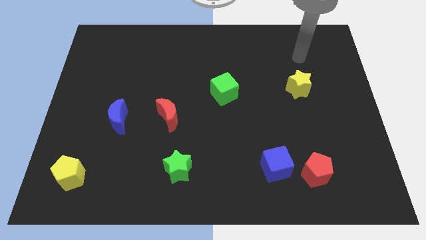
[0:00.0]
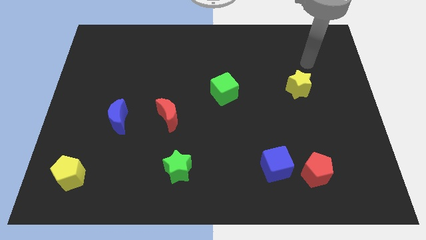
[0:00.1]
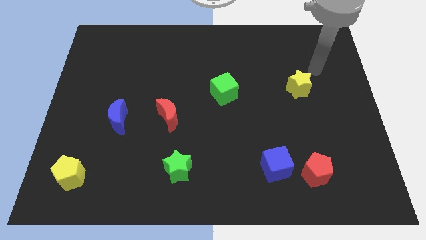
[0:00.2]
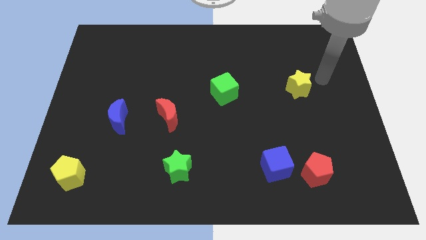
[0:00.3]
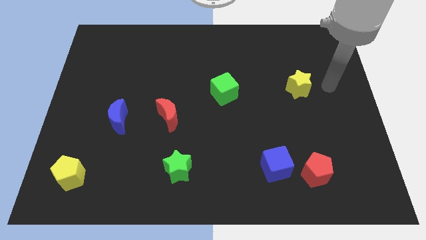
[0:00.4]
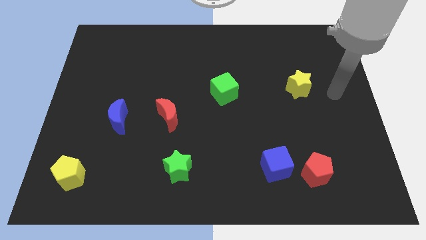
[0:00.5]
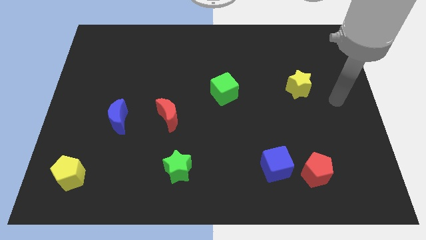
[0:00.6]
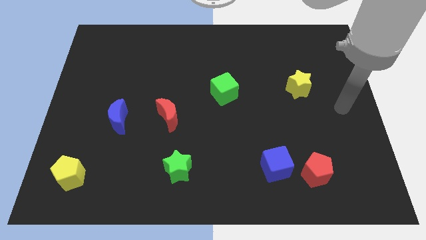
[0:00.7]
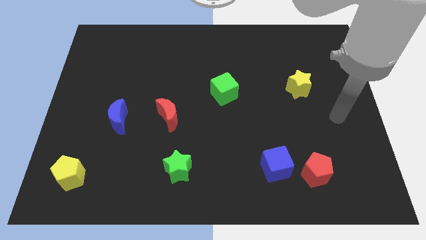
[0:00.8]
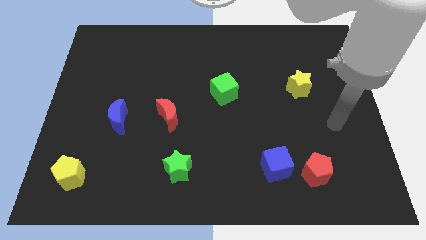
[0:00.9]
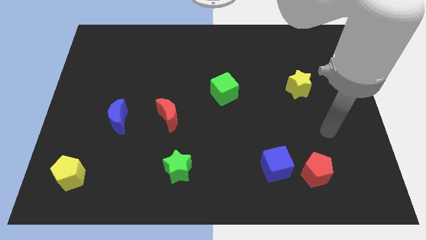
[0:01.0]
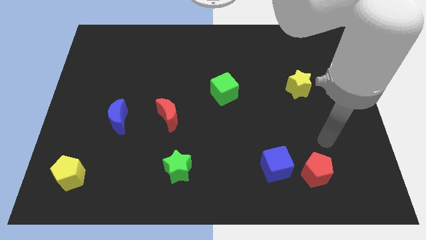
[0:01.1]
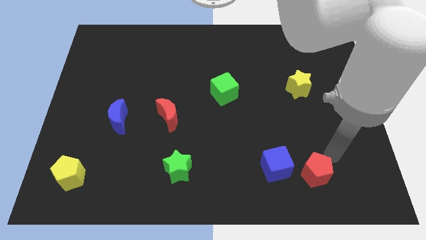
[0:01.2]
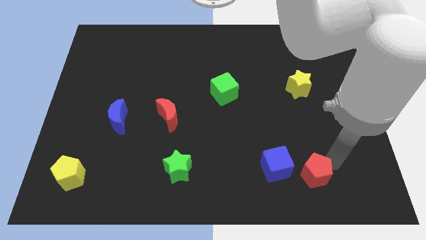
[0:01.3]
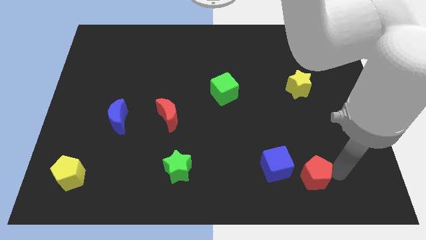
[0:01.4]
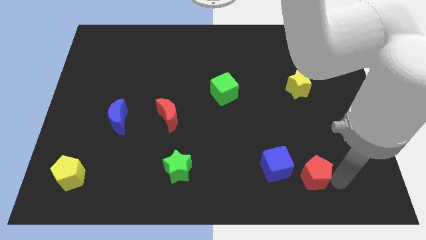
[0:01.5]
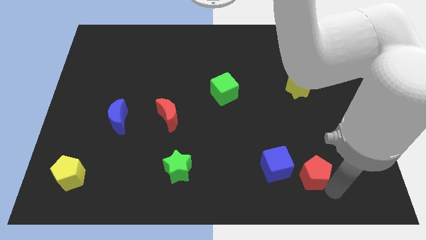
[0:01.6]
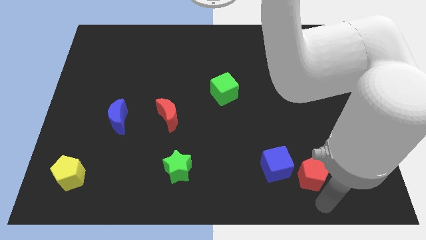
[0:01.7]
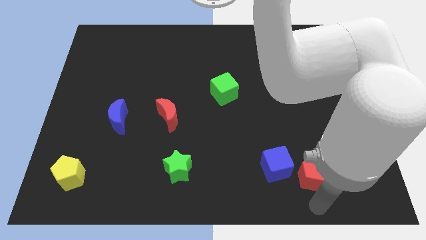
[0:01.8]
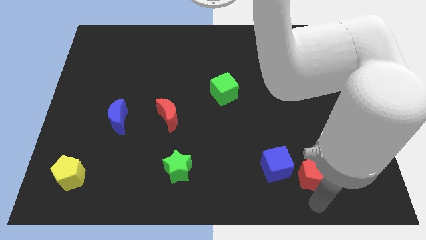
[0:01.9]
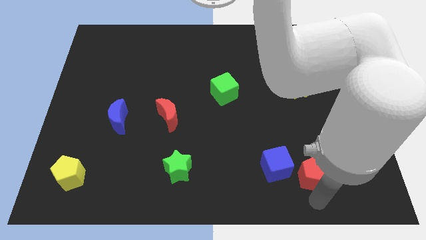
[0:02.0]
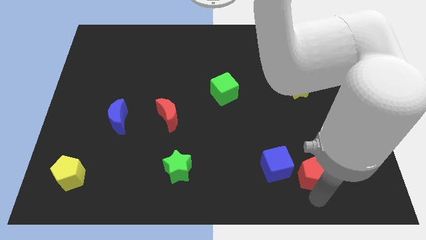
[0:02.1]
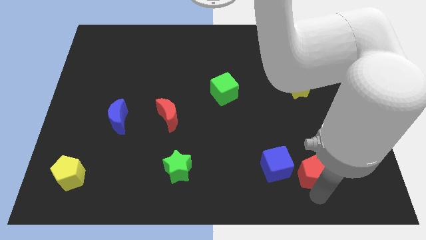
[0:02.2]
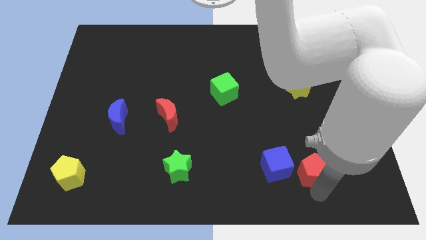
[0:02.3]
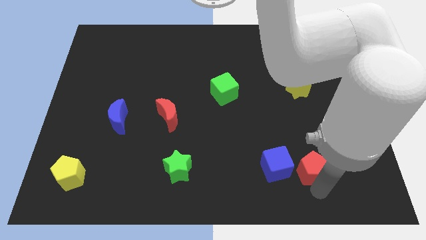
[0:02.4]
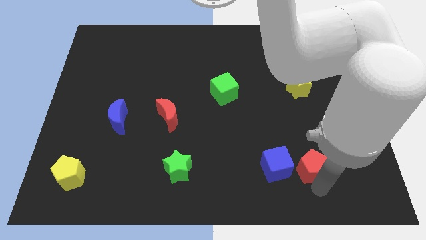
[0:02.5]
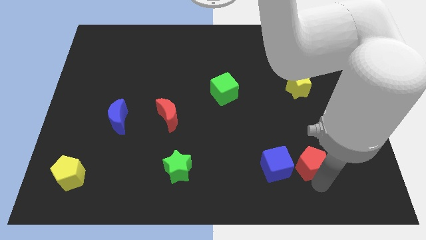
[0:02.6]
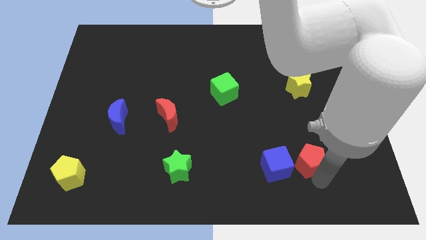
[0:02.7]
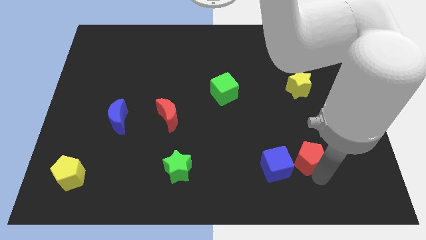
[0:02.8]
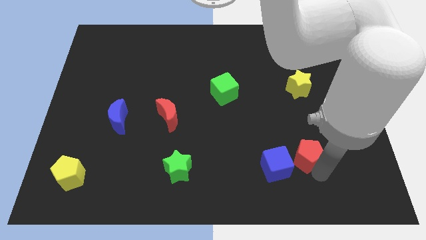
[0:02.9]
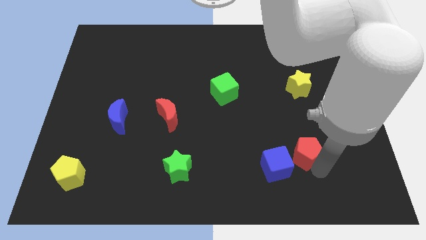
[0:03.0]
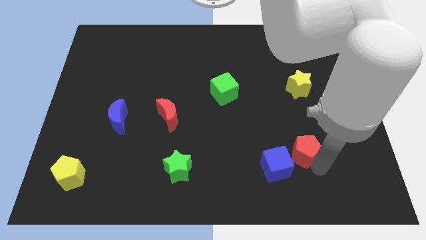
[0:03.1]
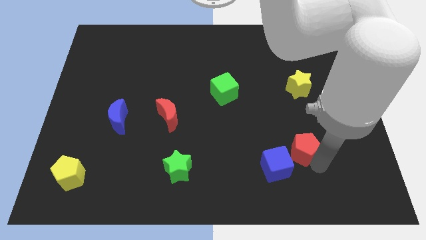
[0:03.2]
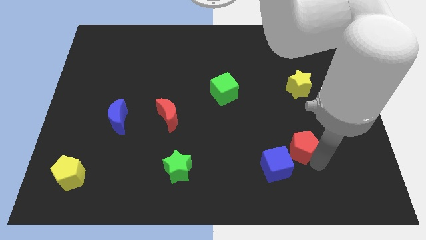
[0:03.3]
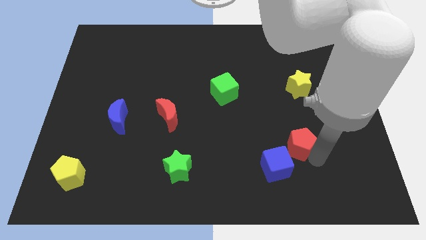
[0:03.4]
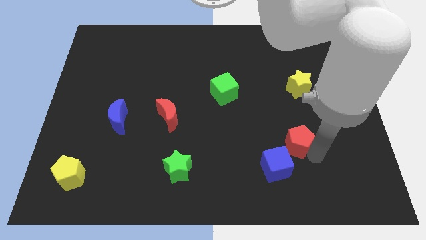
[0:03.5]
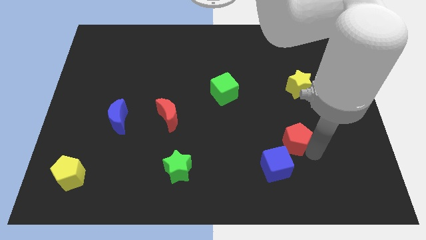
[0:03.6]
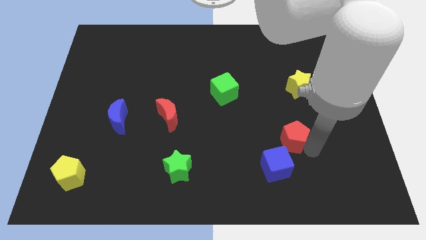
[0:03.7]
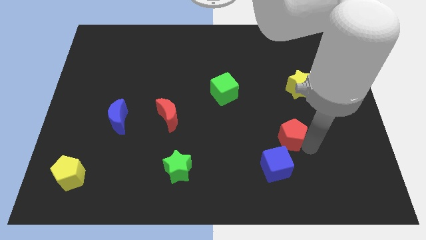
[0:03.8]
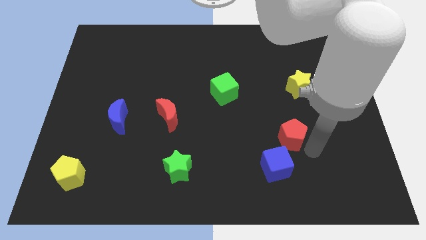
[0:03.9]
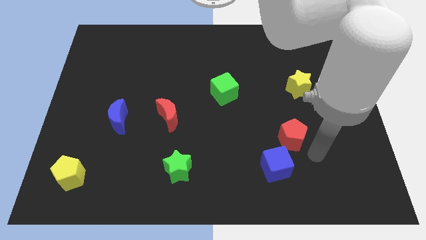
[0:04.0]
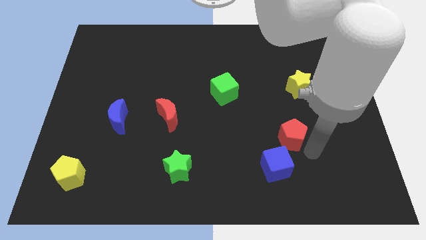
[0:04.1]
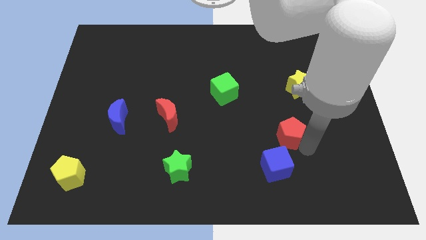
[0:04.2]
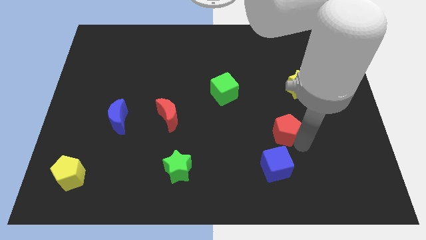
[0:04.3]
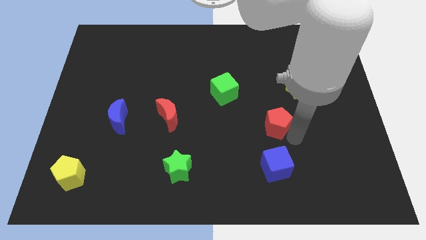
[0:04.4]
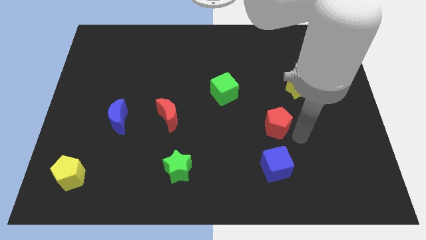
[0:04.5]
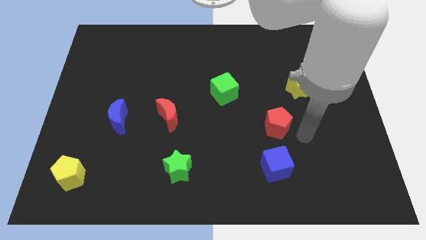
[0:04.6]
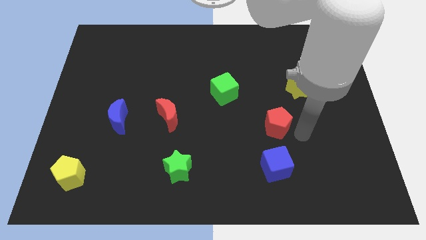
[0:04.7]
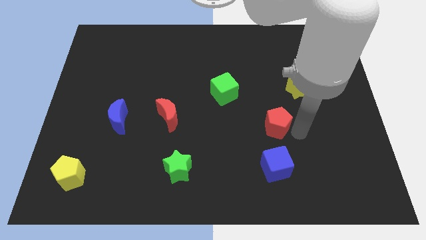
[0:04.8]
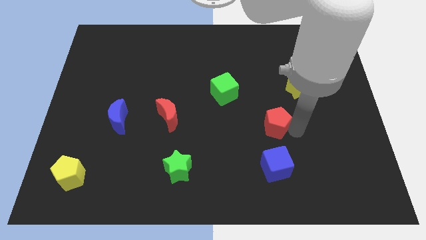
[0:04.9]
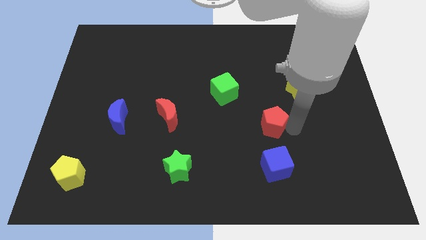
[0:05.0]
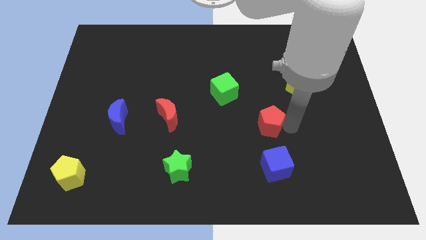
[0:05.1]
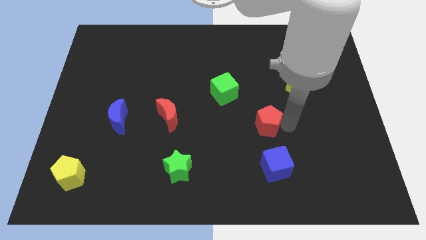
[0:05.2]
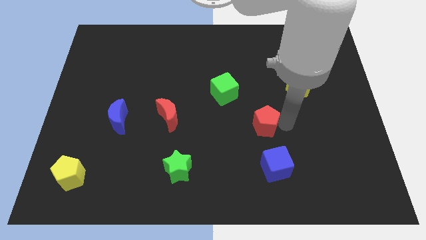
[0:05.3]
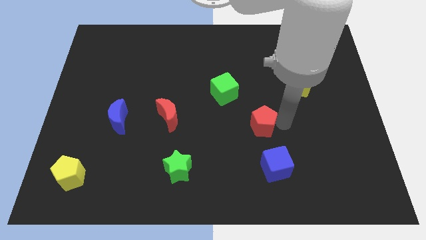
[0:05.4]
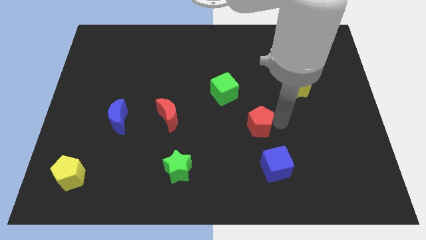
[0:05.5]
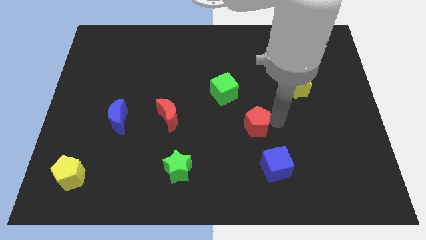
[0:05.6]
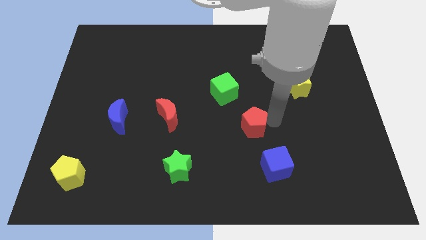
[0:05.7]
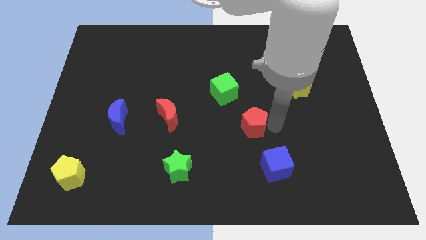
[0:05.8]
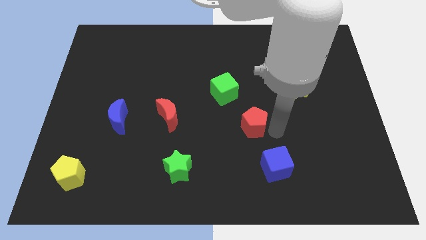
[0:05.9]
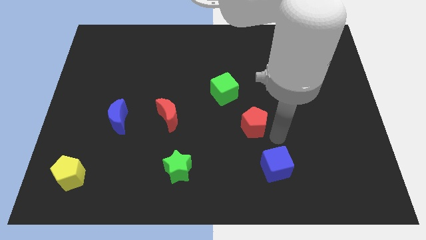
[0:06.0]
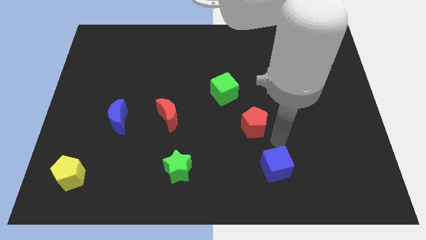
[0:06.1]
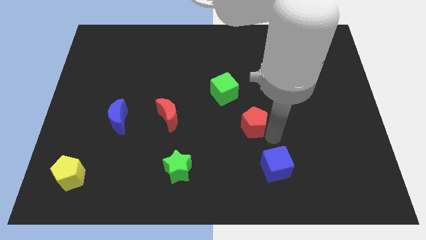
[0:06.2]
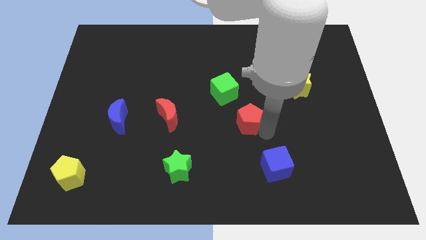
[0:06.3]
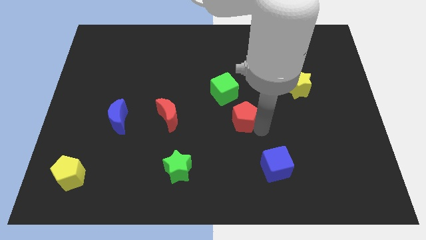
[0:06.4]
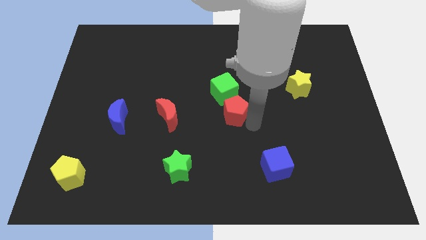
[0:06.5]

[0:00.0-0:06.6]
push the red pentagon upwards and left

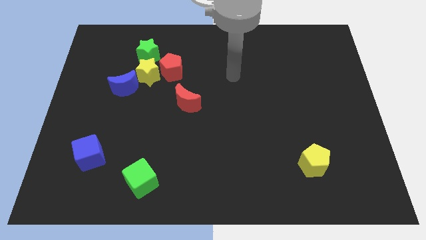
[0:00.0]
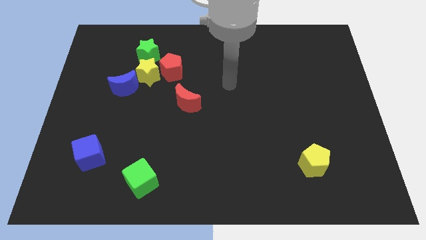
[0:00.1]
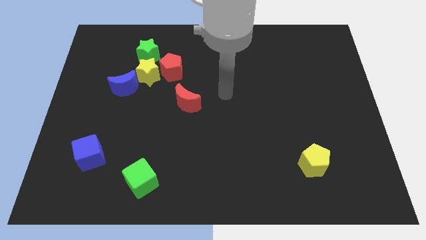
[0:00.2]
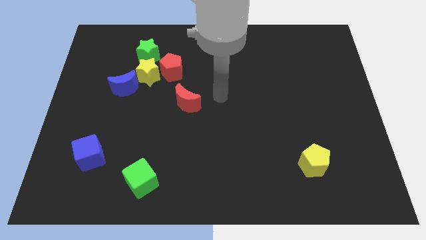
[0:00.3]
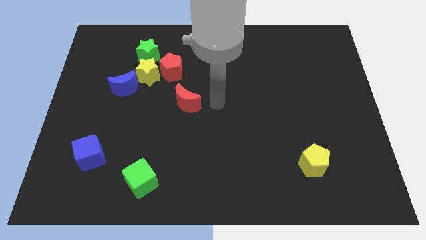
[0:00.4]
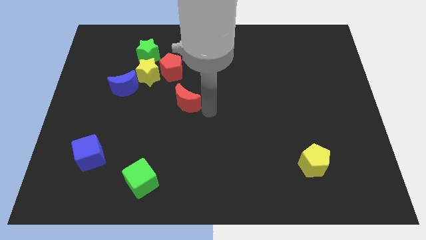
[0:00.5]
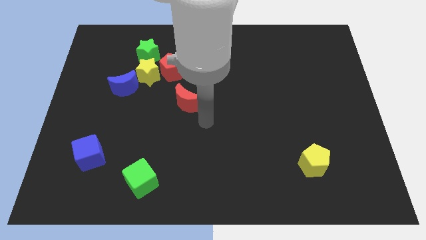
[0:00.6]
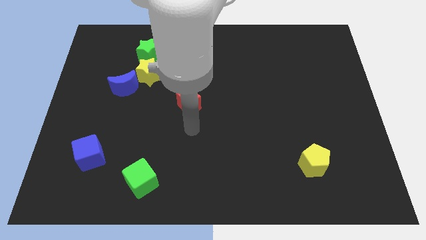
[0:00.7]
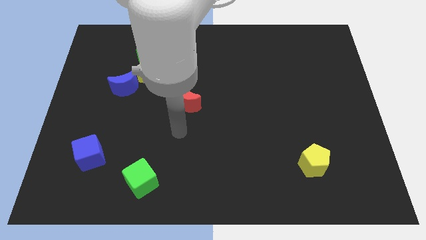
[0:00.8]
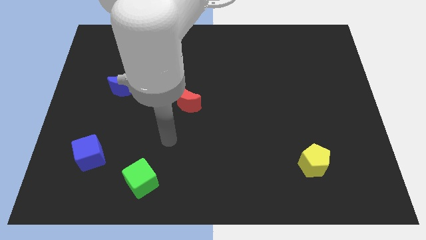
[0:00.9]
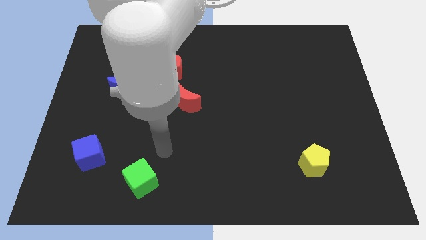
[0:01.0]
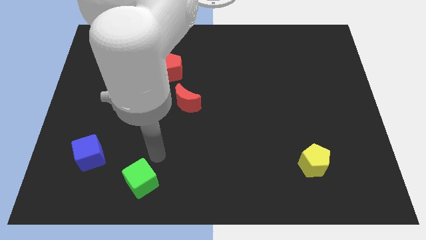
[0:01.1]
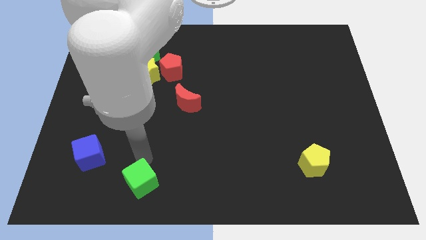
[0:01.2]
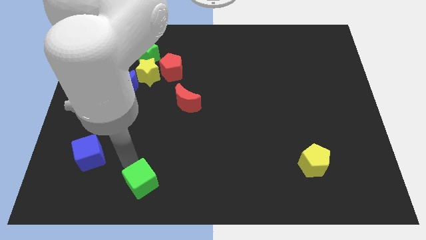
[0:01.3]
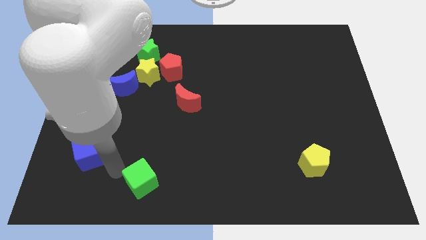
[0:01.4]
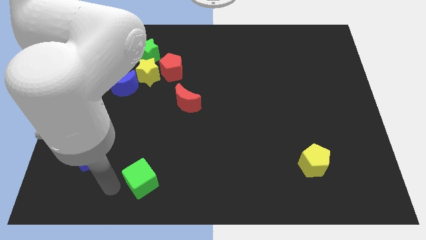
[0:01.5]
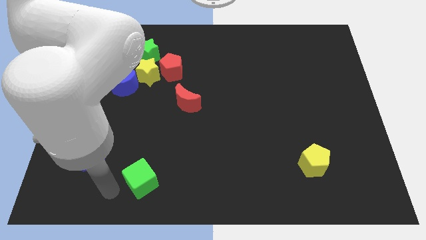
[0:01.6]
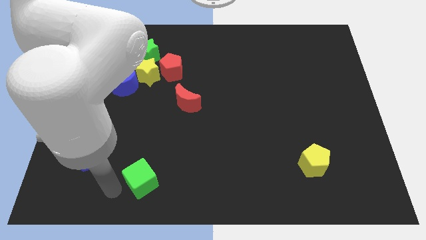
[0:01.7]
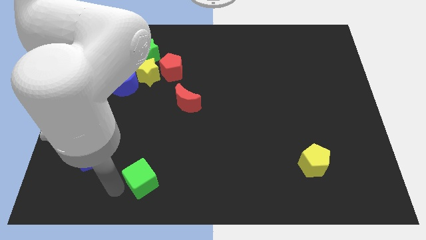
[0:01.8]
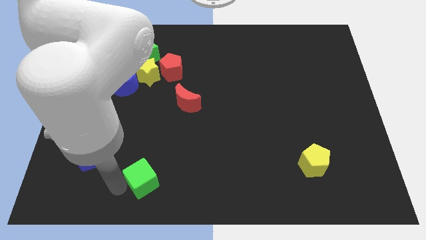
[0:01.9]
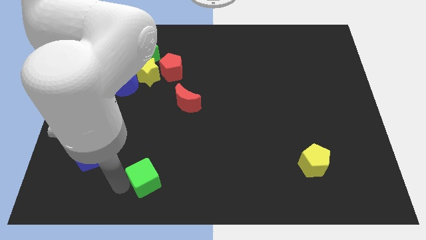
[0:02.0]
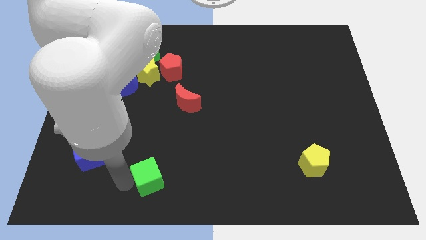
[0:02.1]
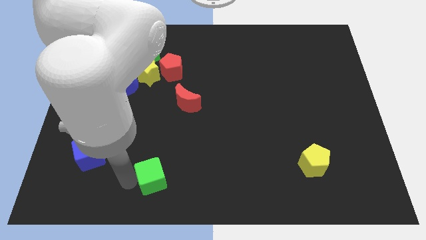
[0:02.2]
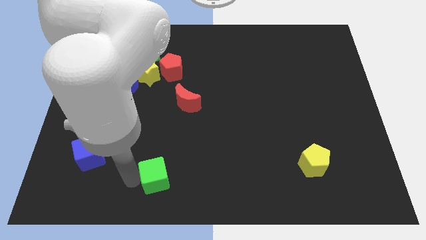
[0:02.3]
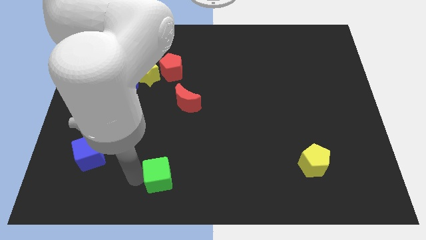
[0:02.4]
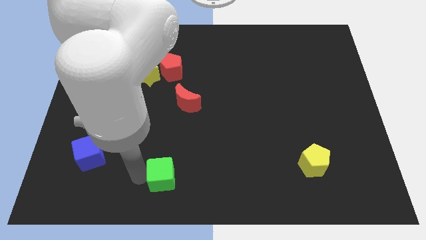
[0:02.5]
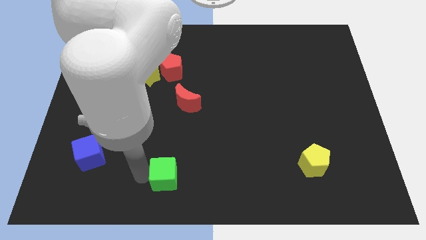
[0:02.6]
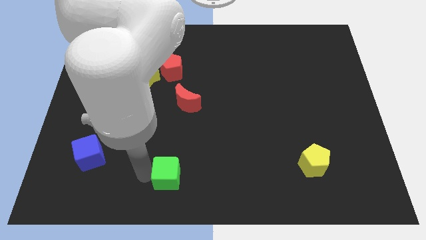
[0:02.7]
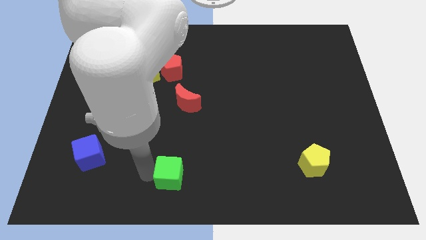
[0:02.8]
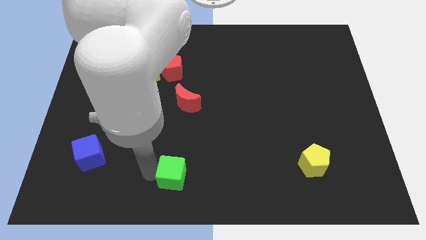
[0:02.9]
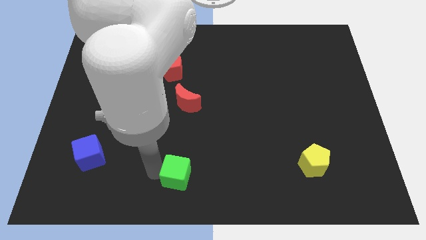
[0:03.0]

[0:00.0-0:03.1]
push the green cube to the right somewhat
